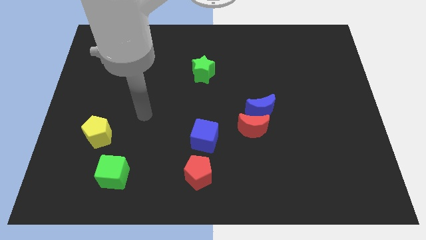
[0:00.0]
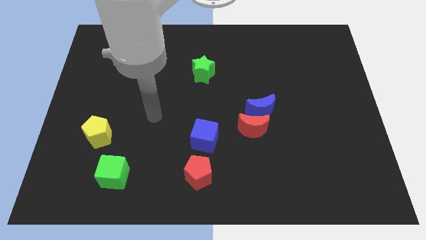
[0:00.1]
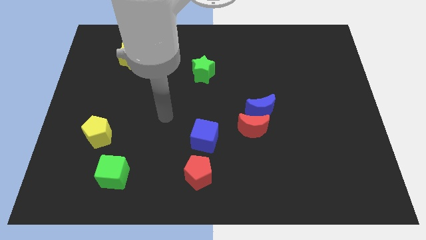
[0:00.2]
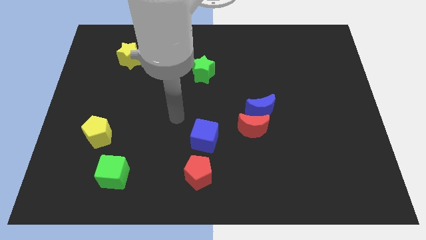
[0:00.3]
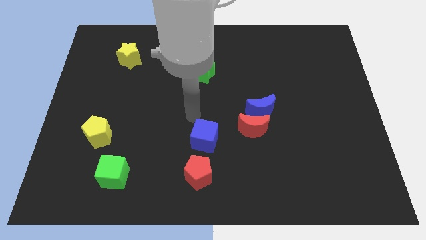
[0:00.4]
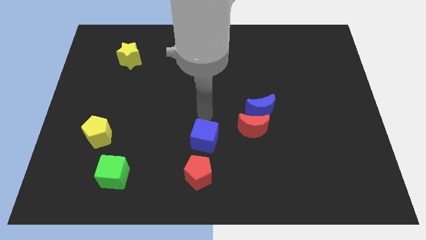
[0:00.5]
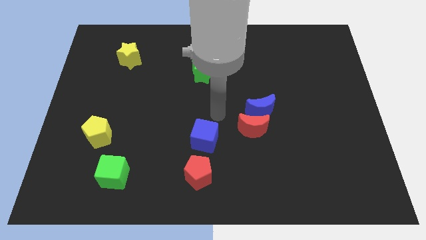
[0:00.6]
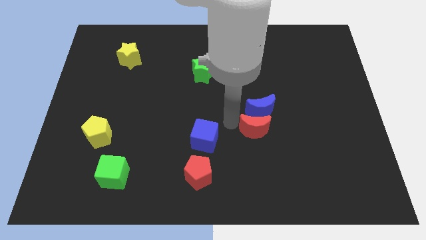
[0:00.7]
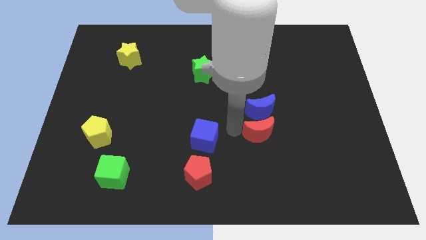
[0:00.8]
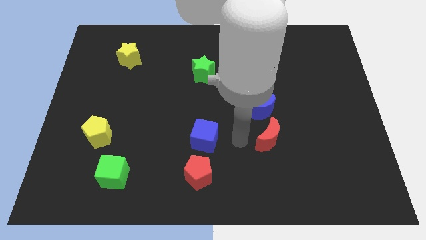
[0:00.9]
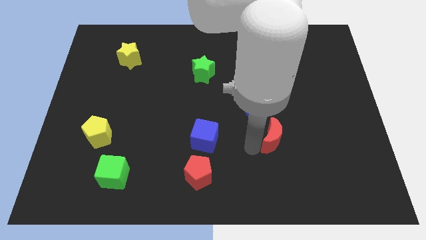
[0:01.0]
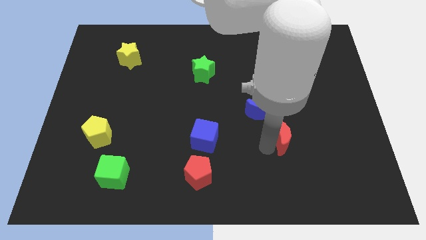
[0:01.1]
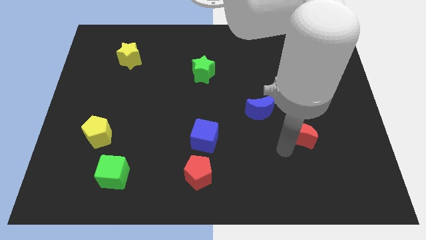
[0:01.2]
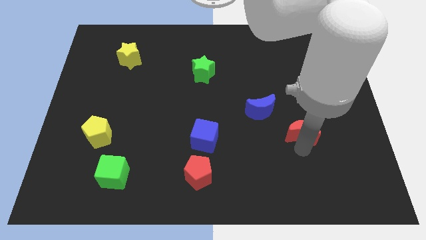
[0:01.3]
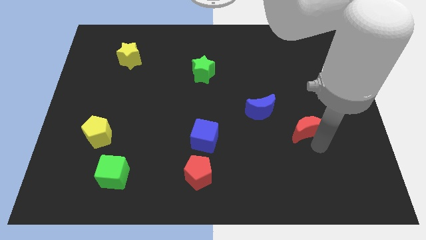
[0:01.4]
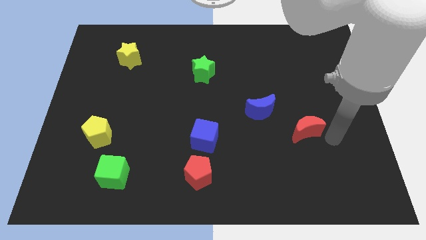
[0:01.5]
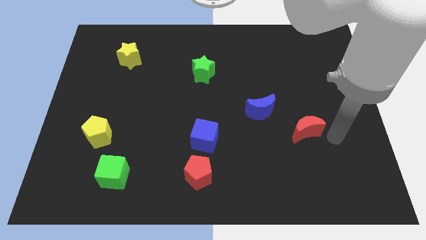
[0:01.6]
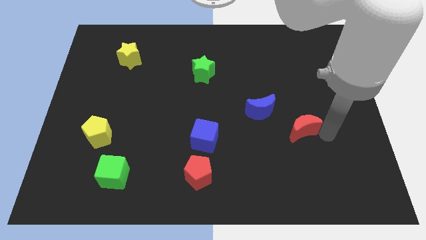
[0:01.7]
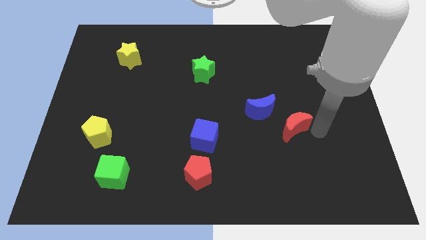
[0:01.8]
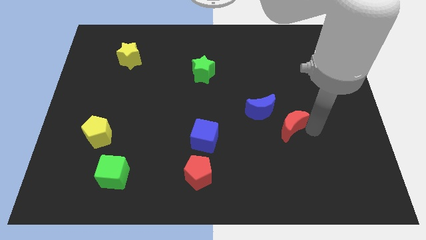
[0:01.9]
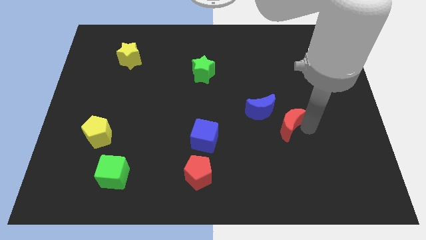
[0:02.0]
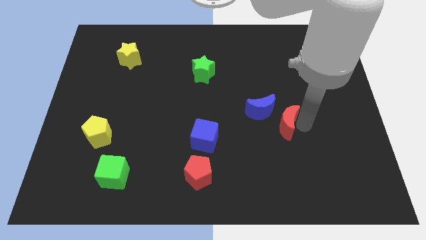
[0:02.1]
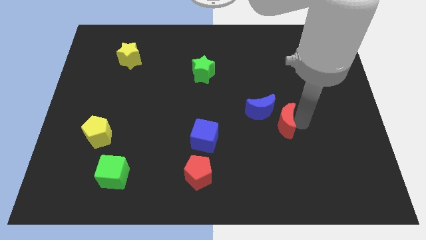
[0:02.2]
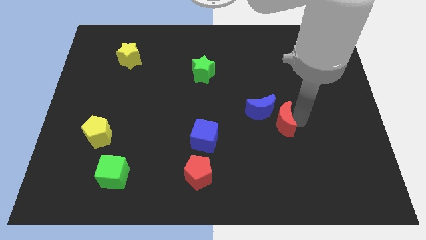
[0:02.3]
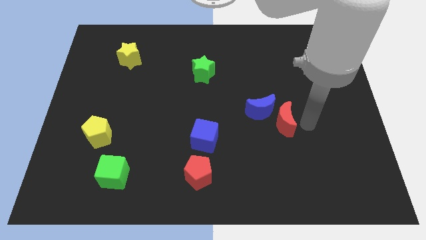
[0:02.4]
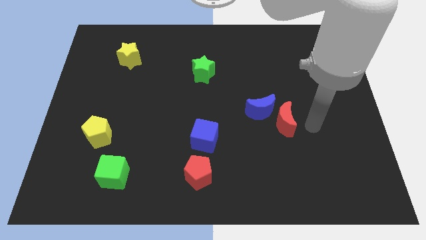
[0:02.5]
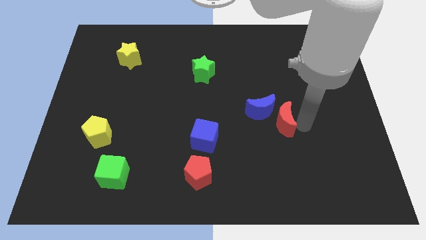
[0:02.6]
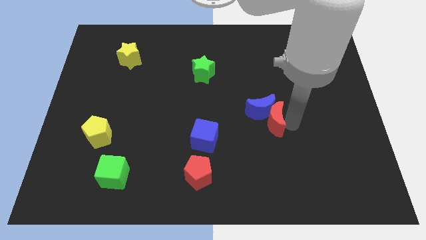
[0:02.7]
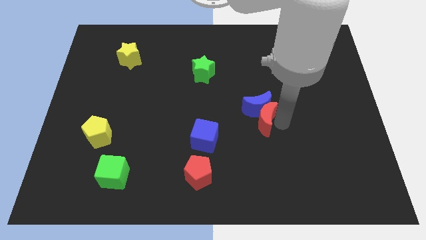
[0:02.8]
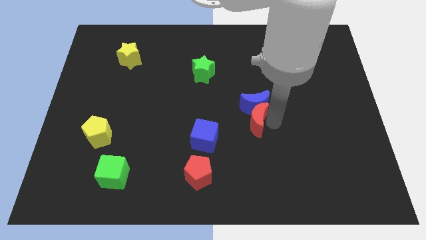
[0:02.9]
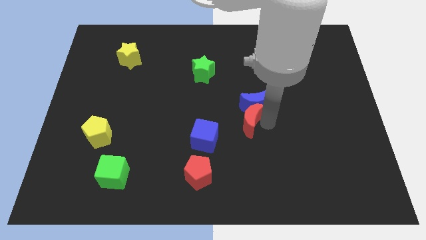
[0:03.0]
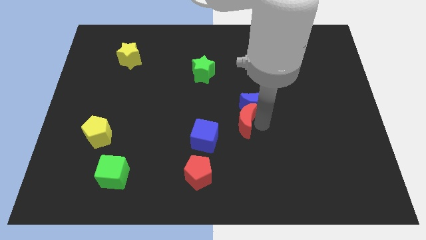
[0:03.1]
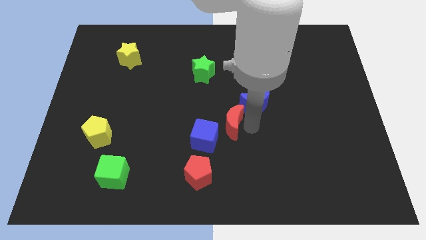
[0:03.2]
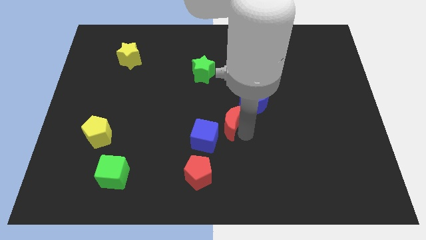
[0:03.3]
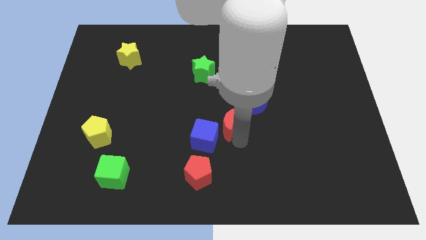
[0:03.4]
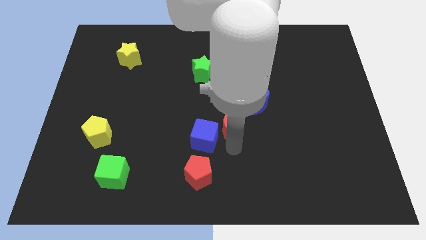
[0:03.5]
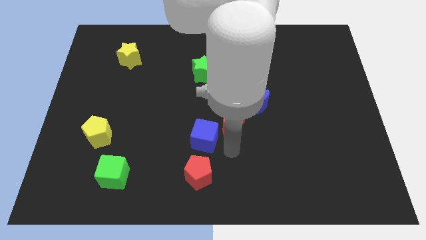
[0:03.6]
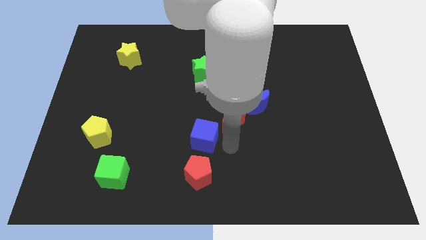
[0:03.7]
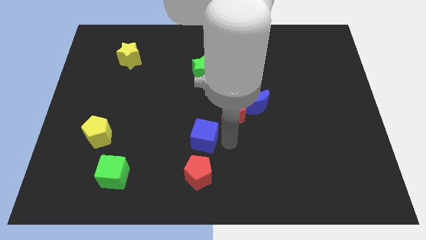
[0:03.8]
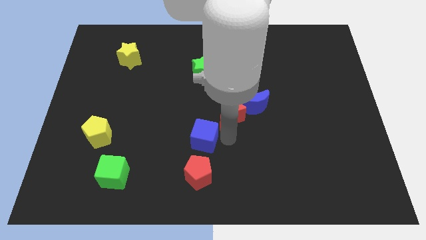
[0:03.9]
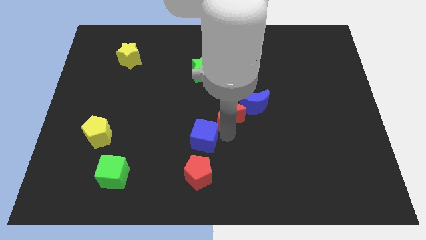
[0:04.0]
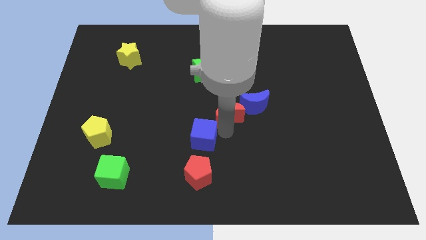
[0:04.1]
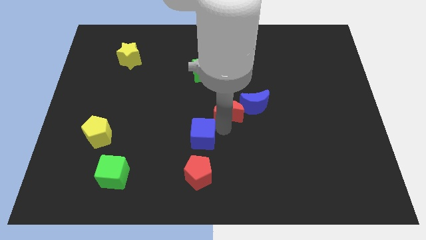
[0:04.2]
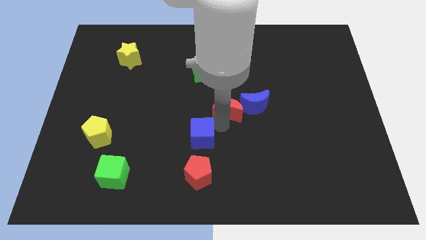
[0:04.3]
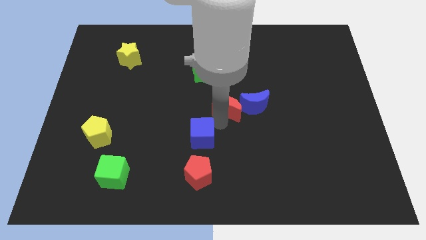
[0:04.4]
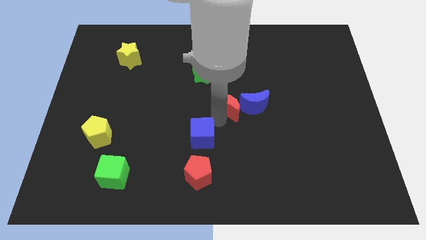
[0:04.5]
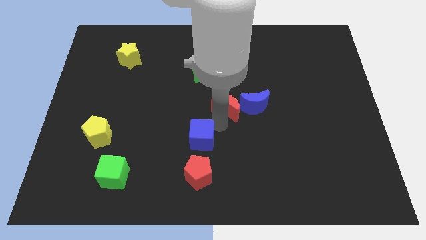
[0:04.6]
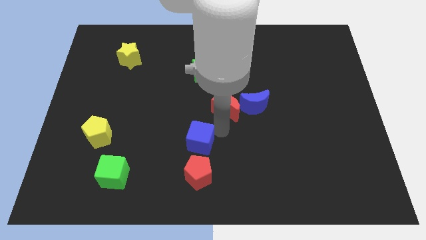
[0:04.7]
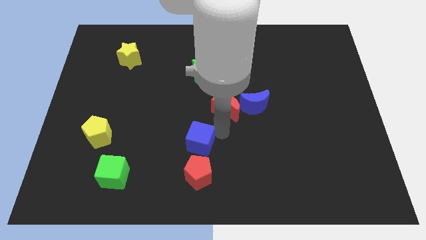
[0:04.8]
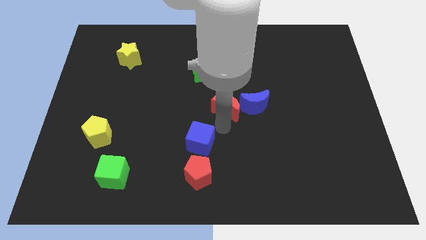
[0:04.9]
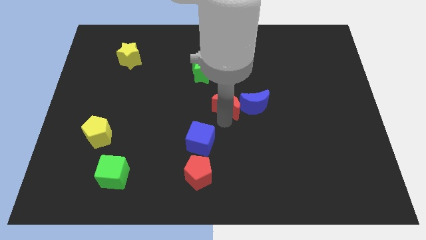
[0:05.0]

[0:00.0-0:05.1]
push the red moon to the top left of the blue moon

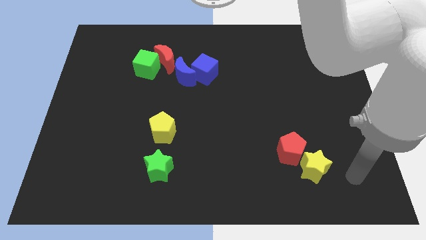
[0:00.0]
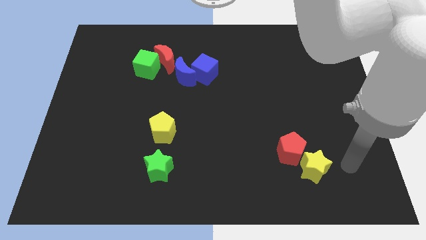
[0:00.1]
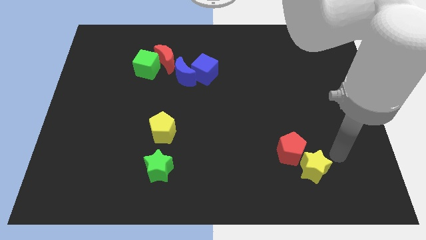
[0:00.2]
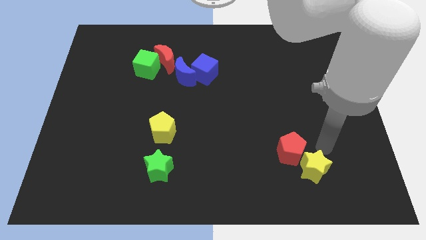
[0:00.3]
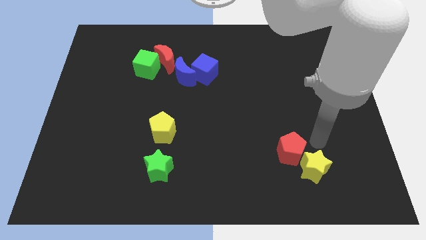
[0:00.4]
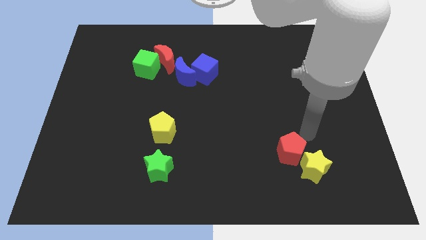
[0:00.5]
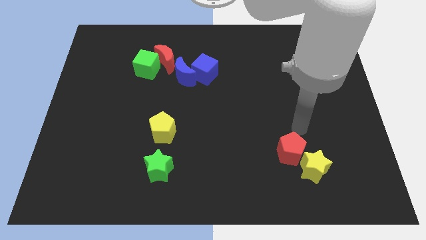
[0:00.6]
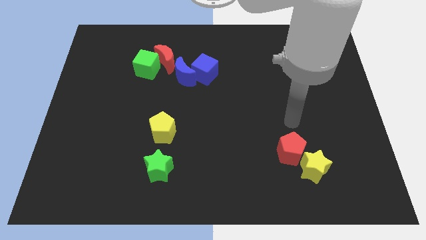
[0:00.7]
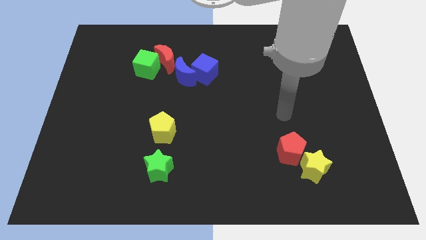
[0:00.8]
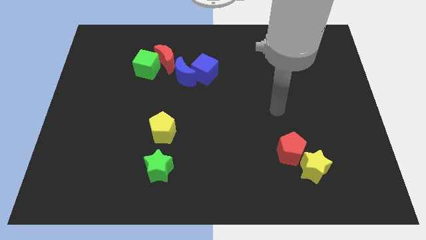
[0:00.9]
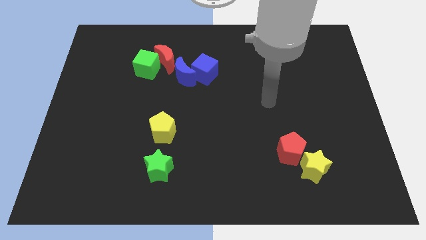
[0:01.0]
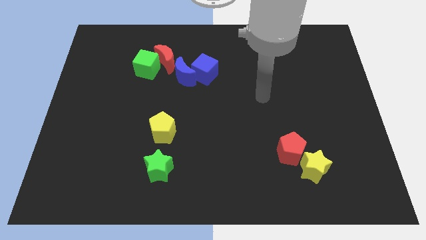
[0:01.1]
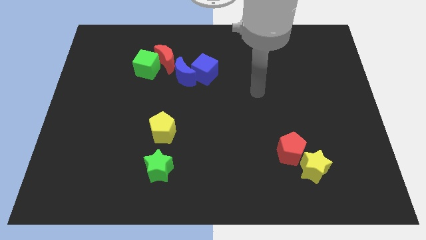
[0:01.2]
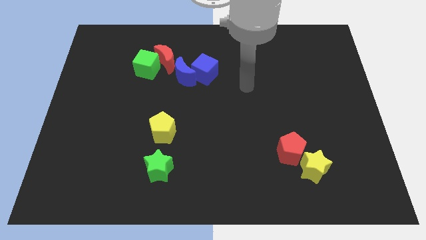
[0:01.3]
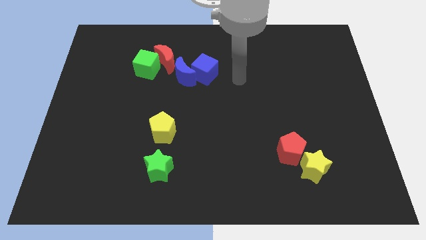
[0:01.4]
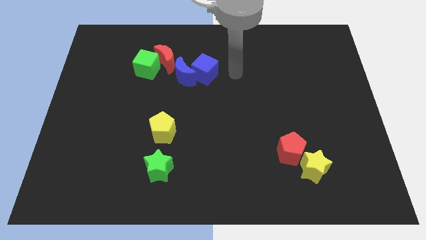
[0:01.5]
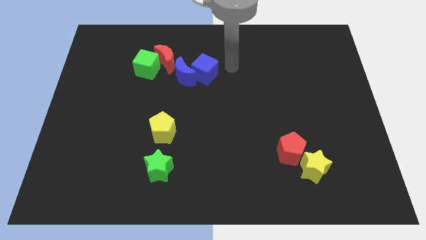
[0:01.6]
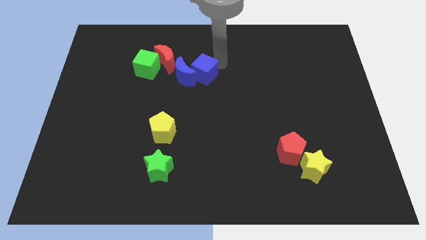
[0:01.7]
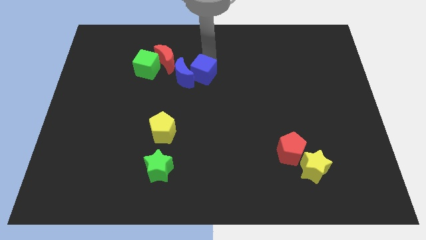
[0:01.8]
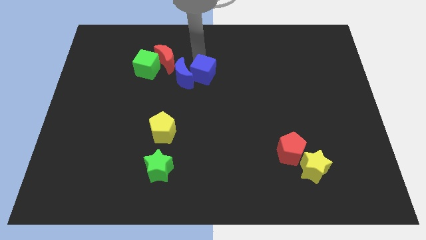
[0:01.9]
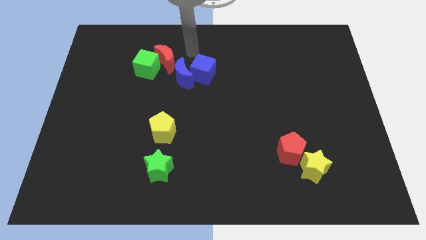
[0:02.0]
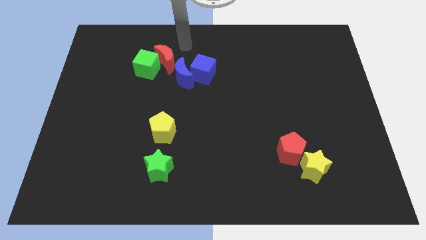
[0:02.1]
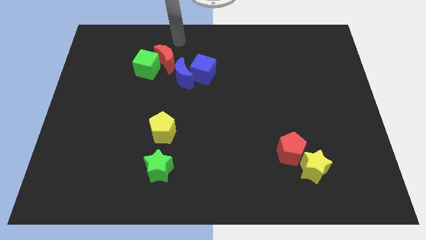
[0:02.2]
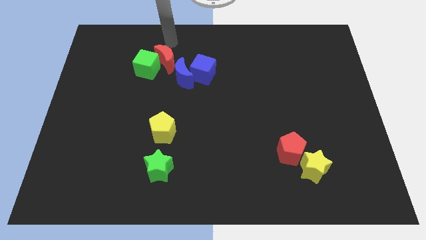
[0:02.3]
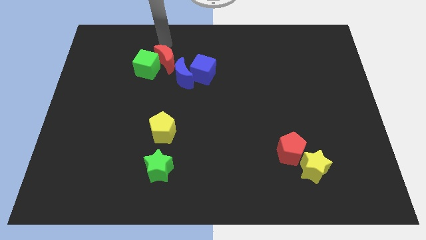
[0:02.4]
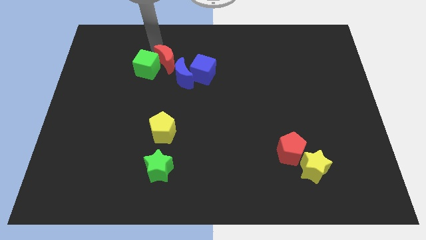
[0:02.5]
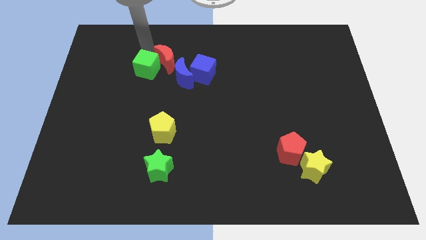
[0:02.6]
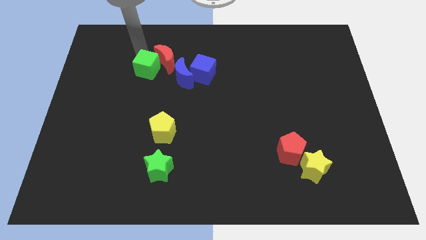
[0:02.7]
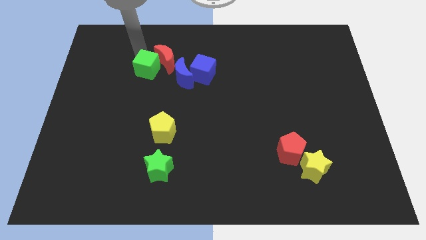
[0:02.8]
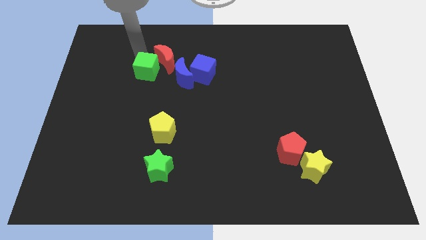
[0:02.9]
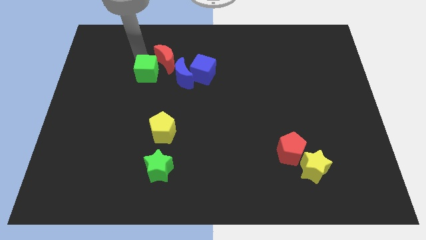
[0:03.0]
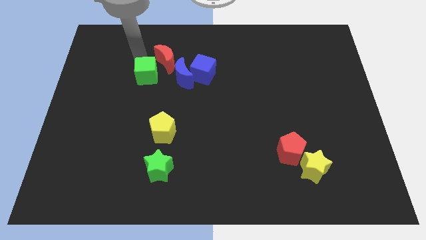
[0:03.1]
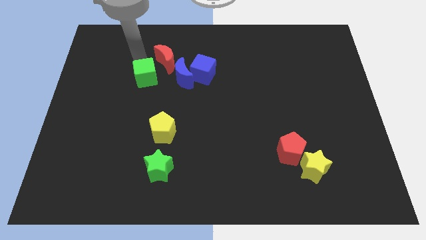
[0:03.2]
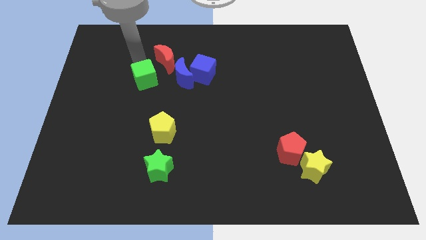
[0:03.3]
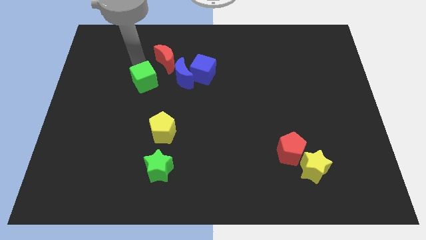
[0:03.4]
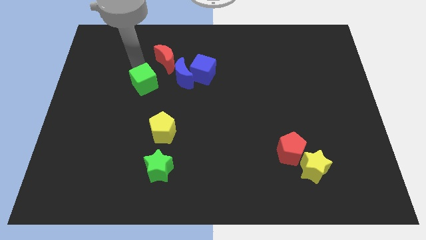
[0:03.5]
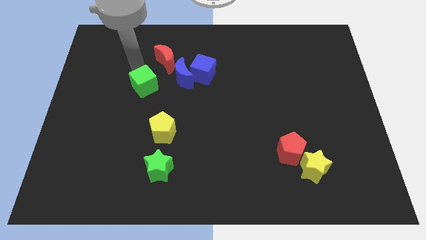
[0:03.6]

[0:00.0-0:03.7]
slide the green cube to the bottom left side of the blue moon
